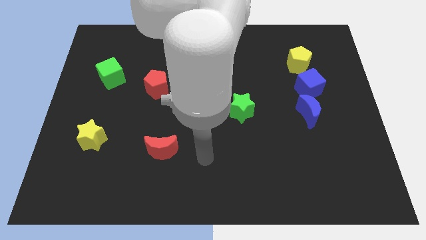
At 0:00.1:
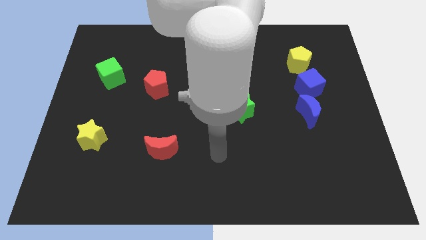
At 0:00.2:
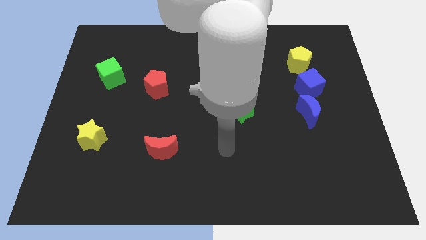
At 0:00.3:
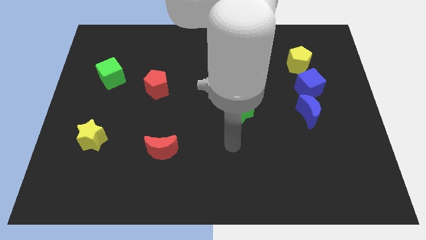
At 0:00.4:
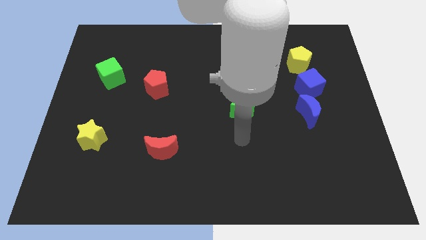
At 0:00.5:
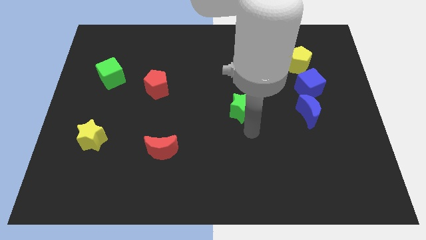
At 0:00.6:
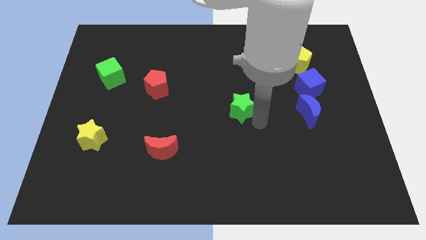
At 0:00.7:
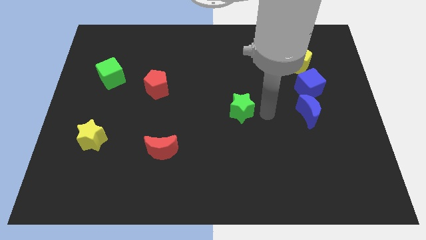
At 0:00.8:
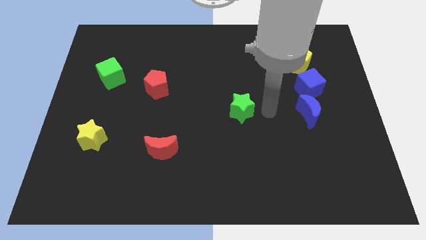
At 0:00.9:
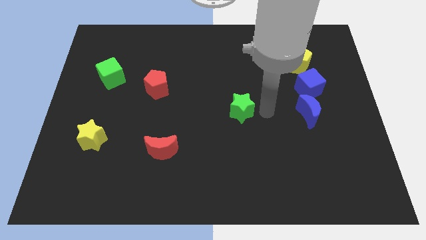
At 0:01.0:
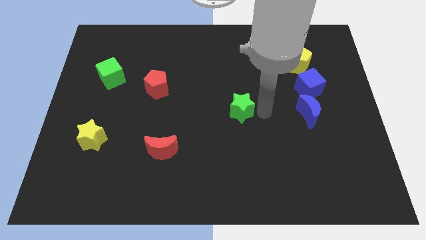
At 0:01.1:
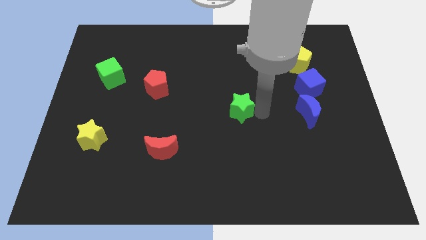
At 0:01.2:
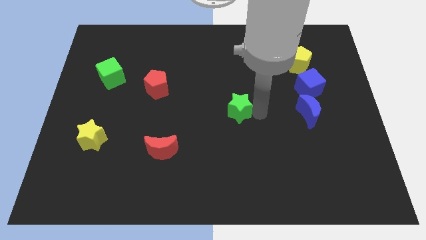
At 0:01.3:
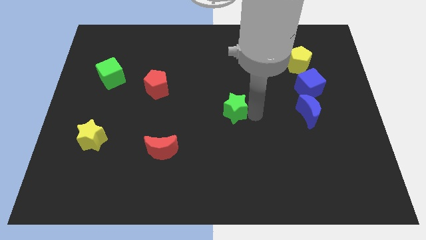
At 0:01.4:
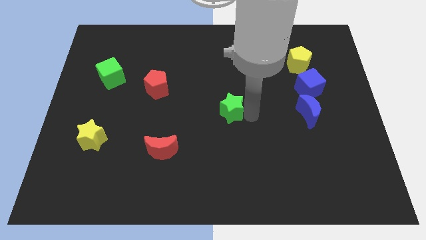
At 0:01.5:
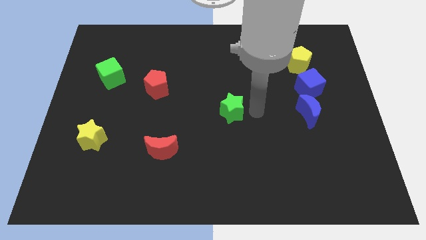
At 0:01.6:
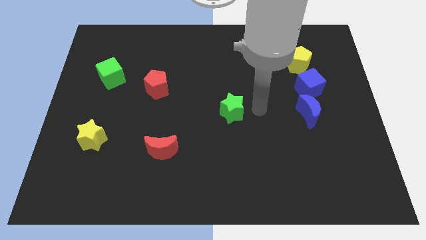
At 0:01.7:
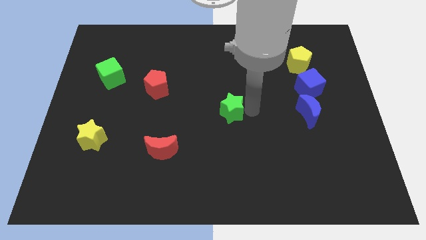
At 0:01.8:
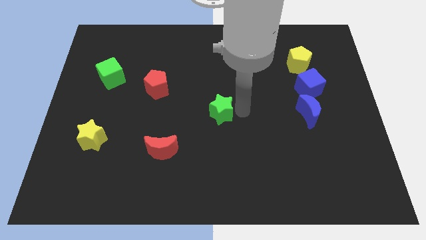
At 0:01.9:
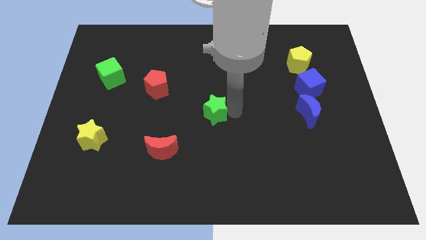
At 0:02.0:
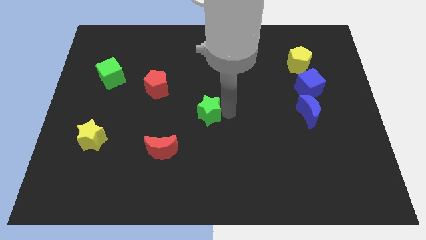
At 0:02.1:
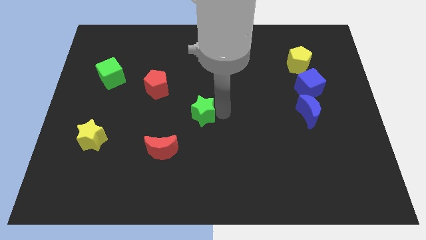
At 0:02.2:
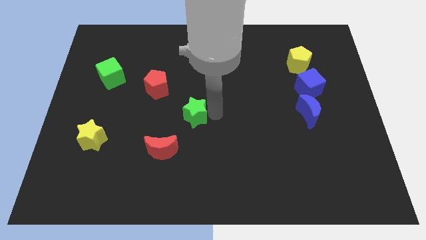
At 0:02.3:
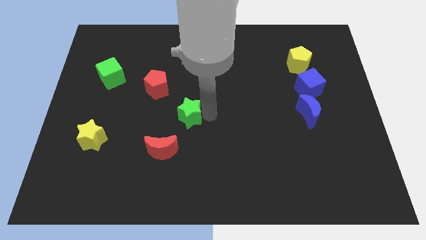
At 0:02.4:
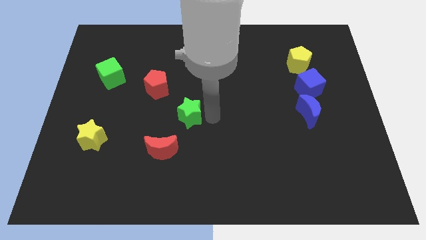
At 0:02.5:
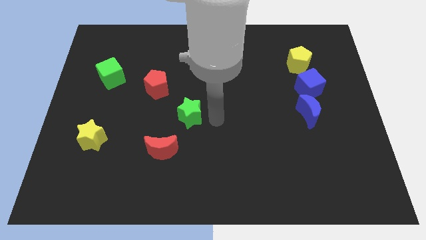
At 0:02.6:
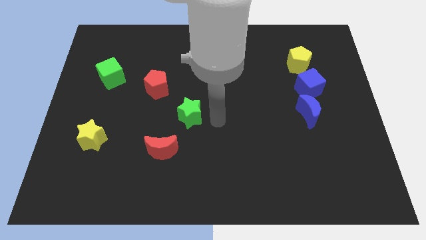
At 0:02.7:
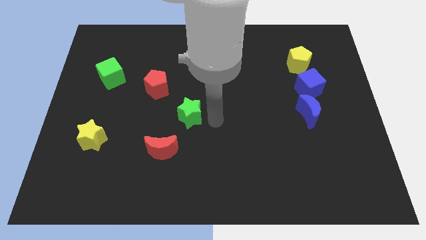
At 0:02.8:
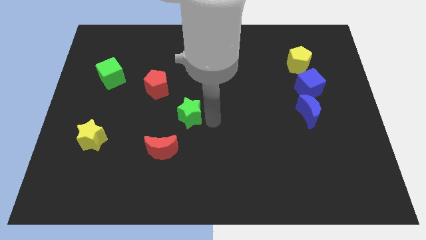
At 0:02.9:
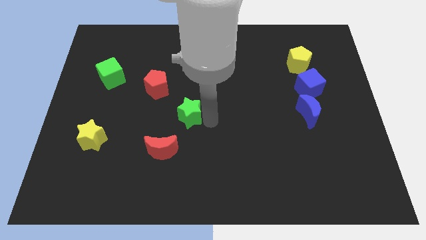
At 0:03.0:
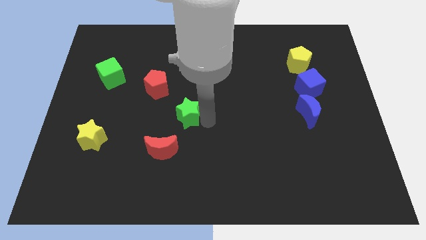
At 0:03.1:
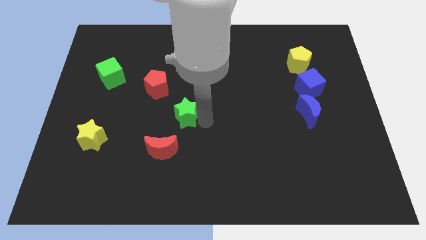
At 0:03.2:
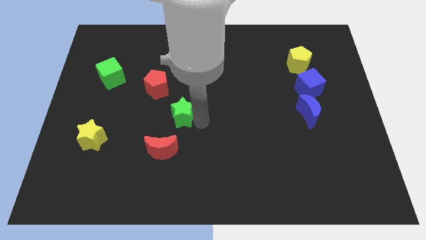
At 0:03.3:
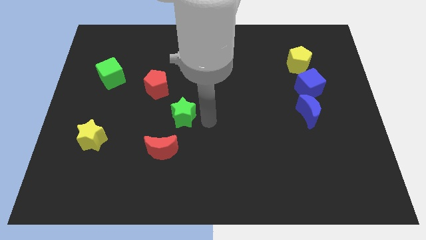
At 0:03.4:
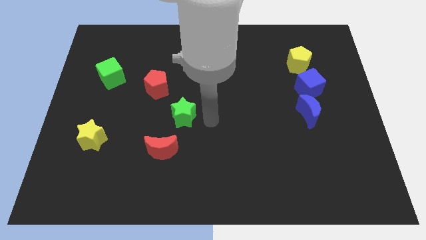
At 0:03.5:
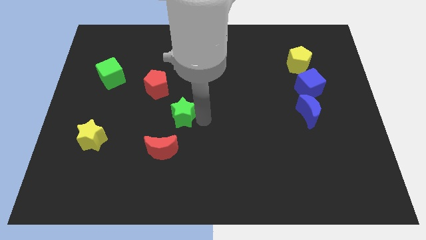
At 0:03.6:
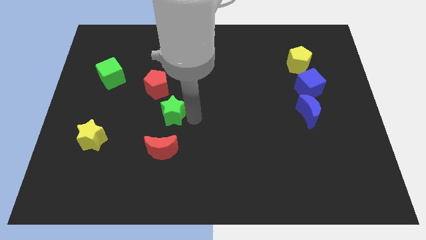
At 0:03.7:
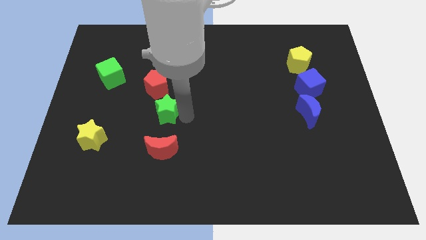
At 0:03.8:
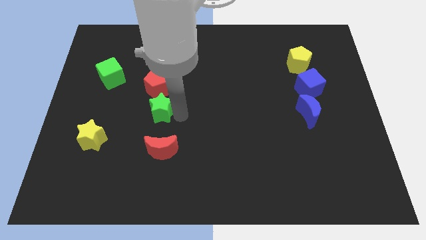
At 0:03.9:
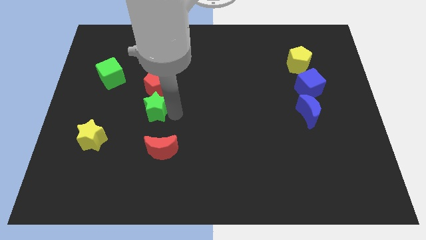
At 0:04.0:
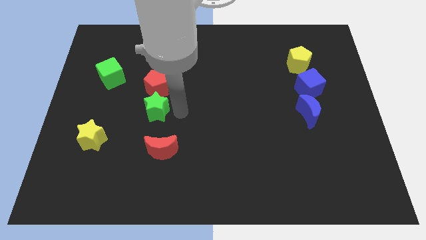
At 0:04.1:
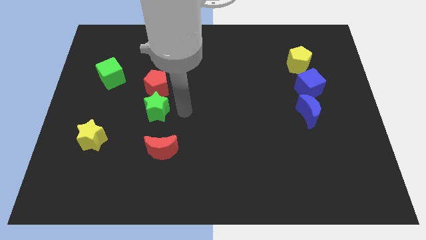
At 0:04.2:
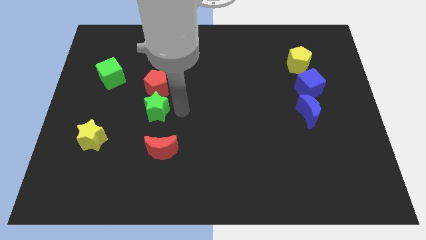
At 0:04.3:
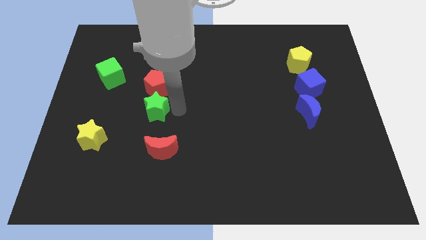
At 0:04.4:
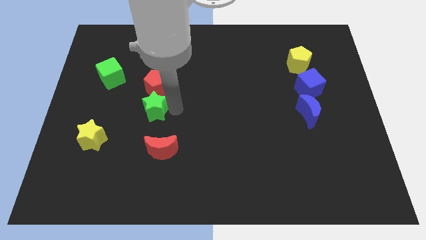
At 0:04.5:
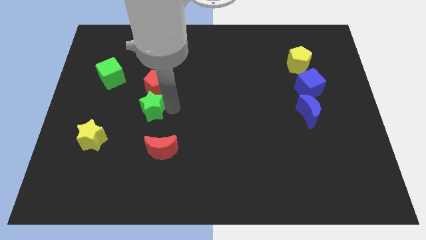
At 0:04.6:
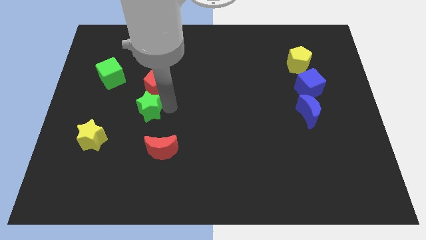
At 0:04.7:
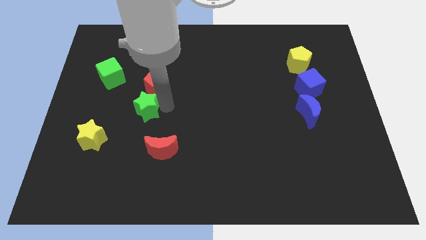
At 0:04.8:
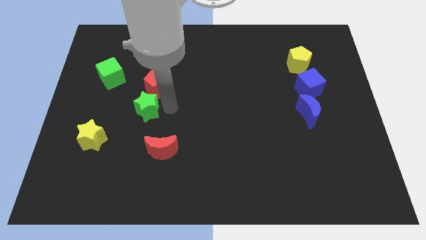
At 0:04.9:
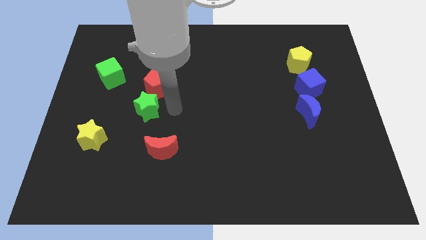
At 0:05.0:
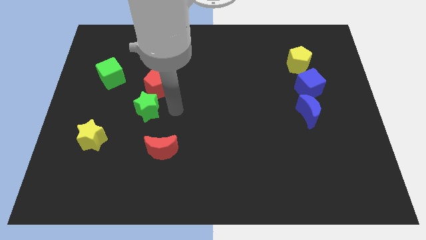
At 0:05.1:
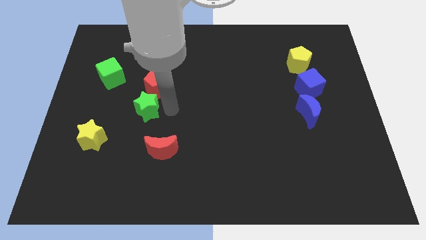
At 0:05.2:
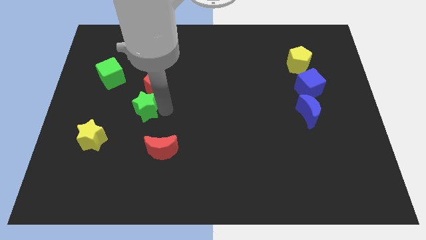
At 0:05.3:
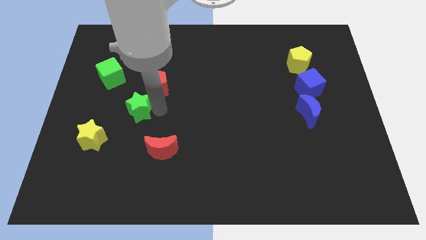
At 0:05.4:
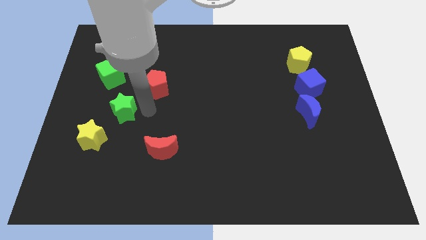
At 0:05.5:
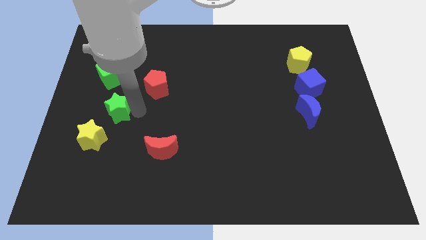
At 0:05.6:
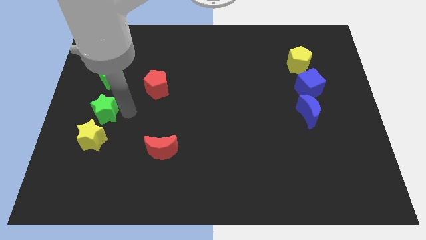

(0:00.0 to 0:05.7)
slide the green star to the left side of the board
